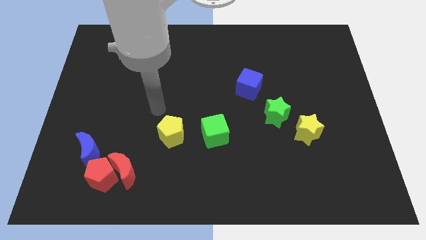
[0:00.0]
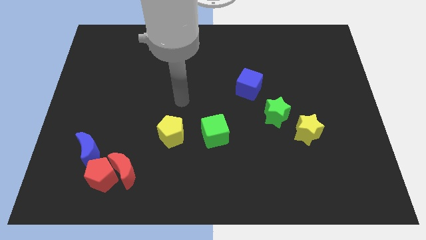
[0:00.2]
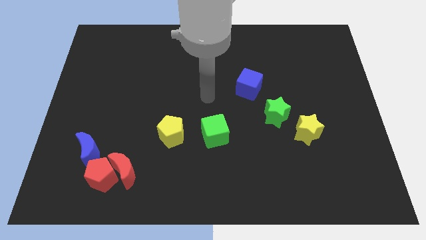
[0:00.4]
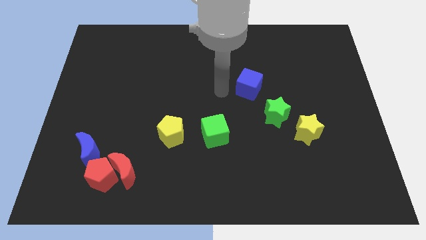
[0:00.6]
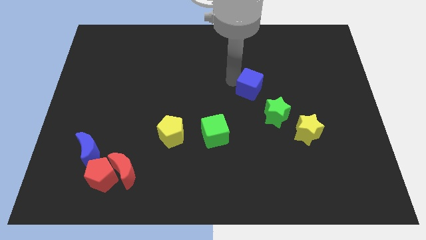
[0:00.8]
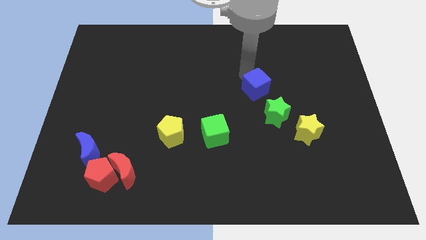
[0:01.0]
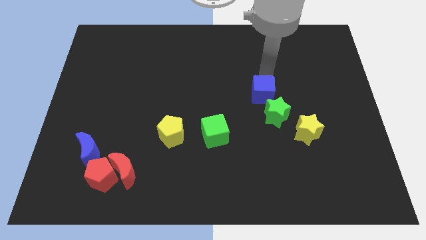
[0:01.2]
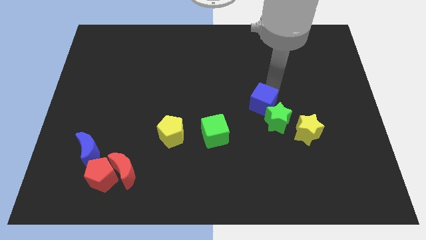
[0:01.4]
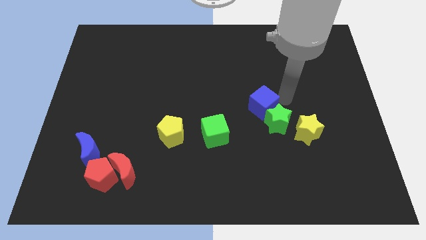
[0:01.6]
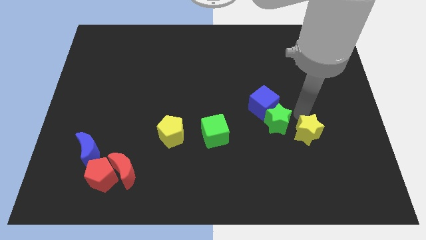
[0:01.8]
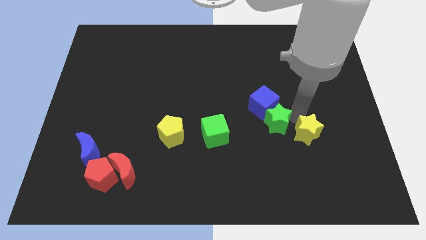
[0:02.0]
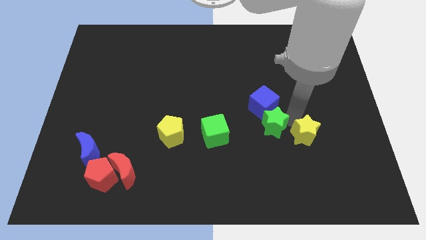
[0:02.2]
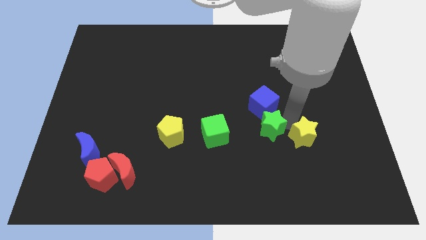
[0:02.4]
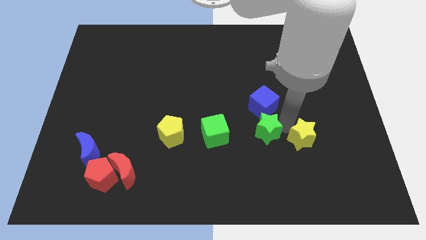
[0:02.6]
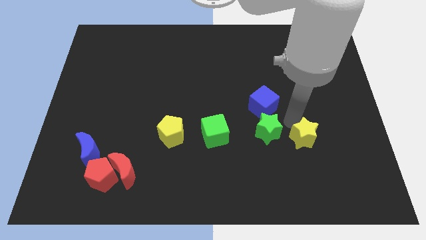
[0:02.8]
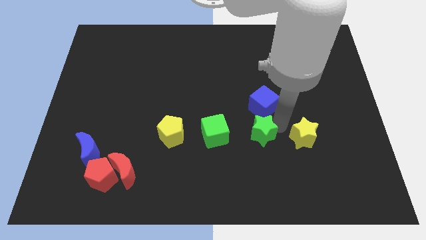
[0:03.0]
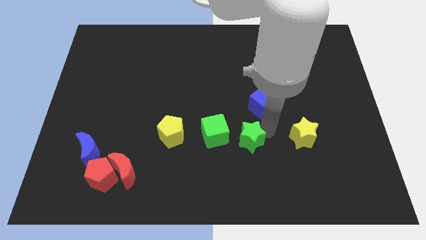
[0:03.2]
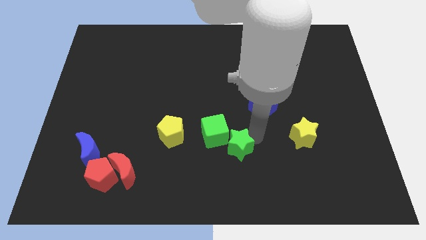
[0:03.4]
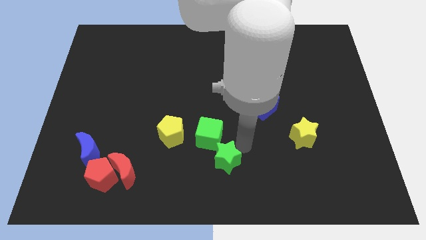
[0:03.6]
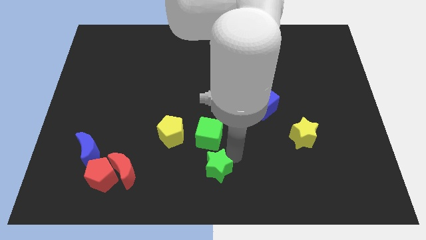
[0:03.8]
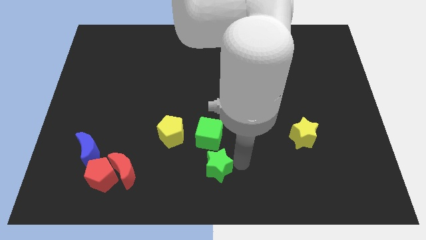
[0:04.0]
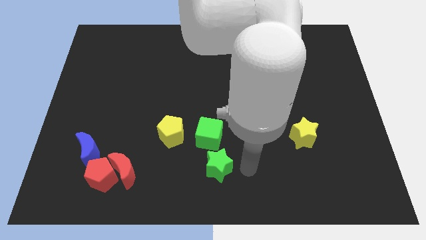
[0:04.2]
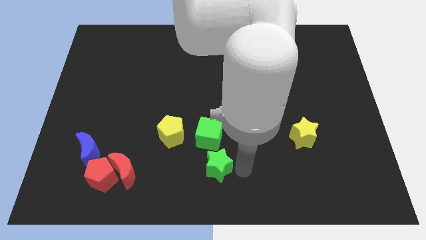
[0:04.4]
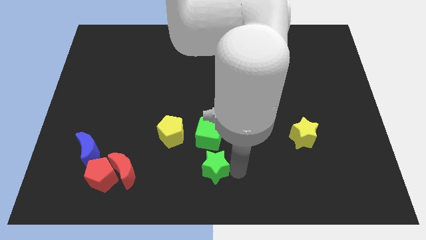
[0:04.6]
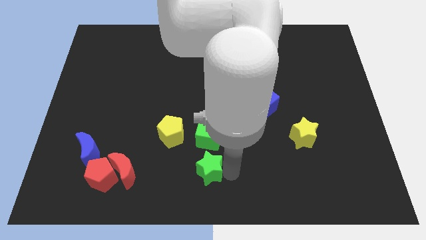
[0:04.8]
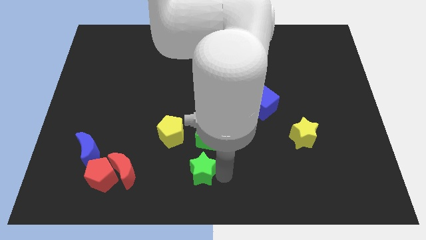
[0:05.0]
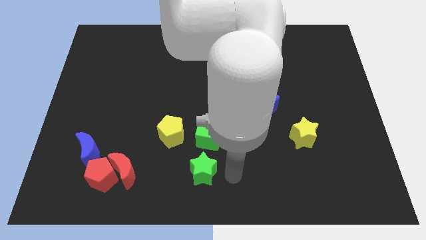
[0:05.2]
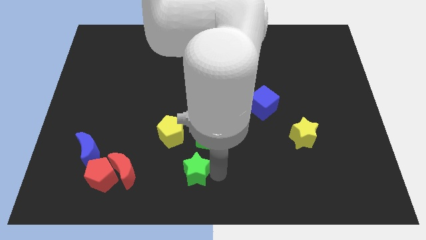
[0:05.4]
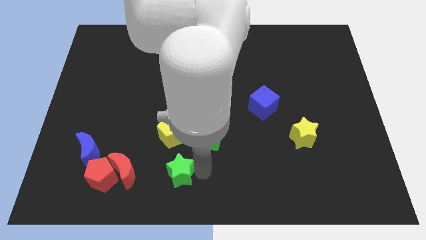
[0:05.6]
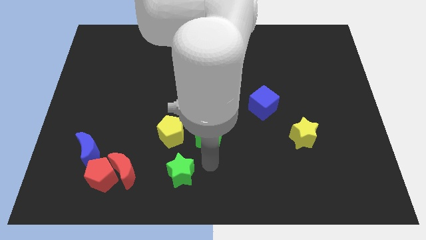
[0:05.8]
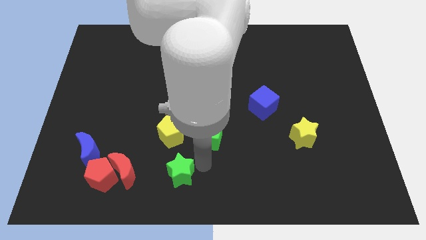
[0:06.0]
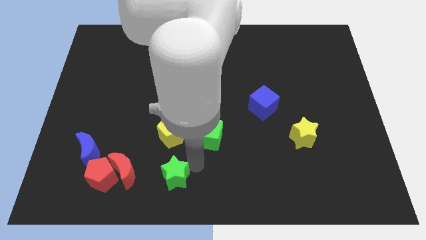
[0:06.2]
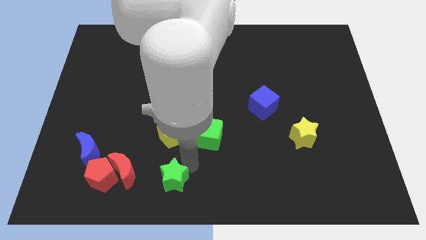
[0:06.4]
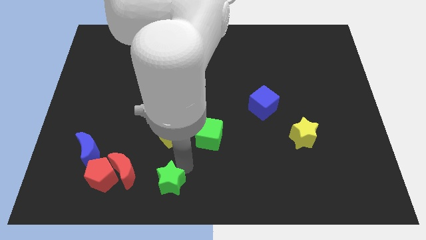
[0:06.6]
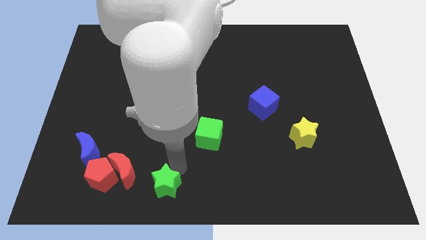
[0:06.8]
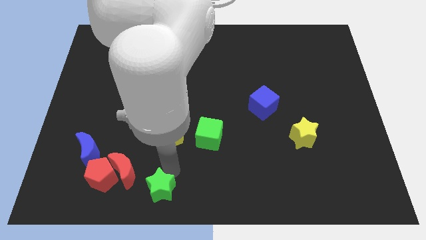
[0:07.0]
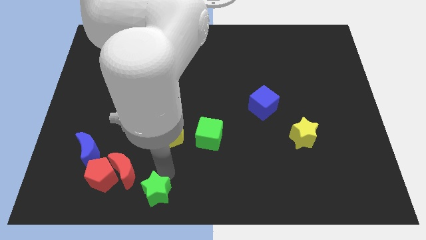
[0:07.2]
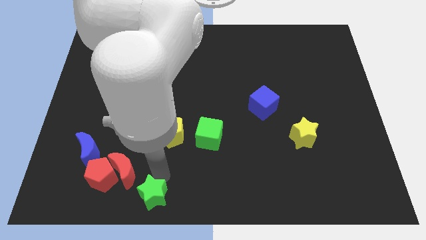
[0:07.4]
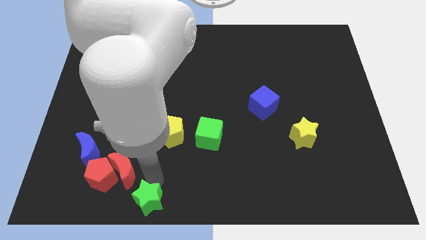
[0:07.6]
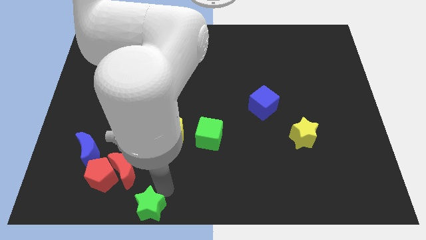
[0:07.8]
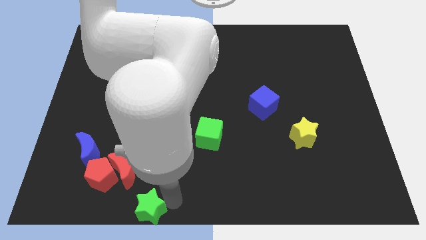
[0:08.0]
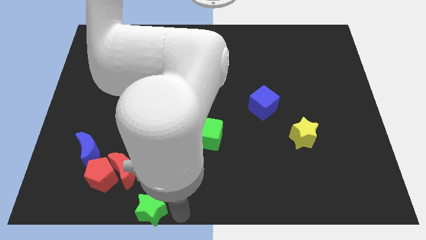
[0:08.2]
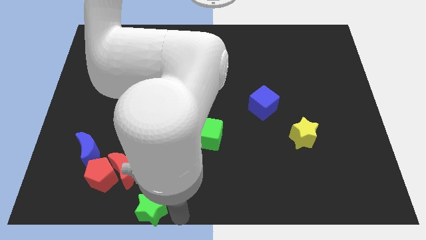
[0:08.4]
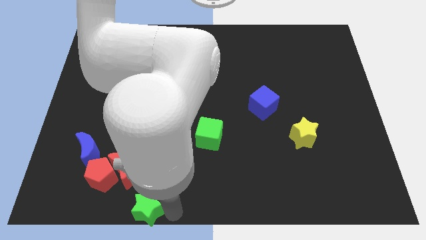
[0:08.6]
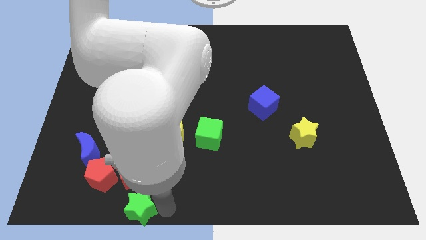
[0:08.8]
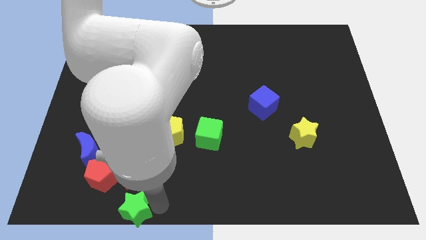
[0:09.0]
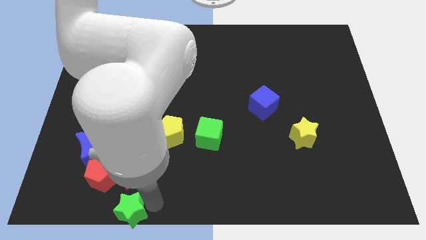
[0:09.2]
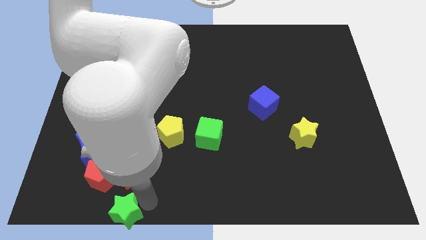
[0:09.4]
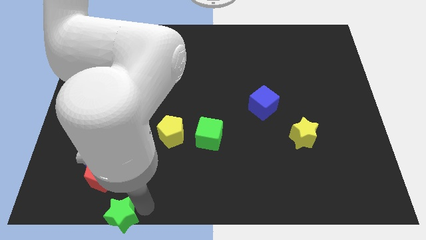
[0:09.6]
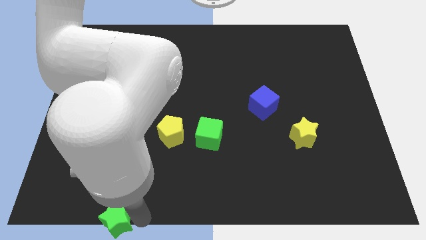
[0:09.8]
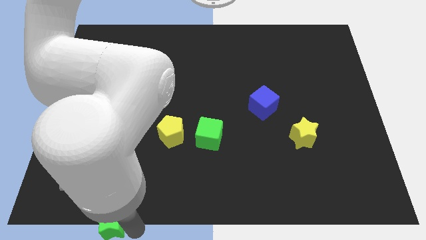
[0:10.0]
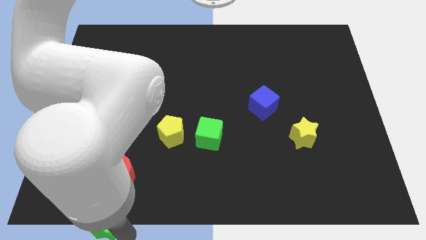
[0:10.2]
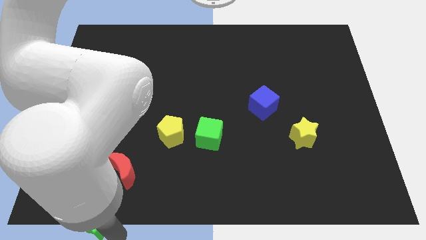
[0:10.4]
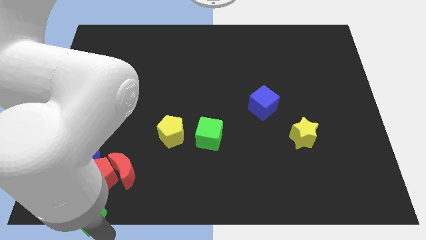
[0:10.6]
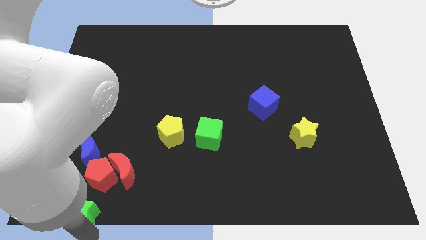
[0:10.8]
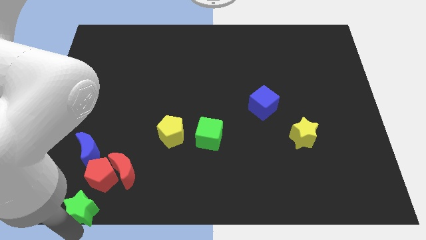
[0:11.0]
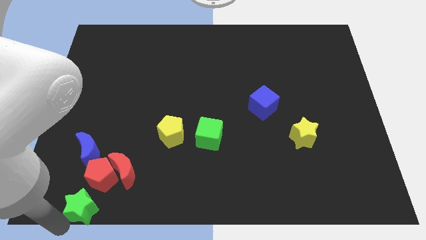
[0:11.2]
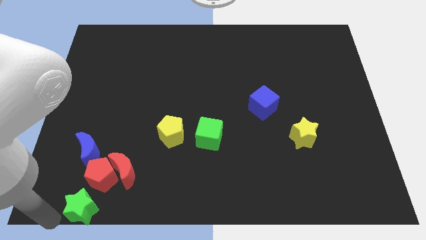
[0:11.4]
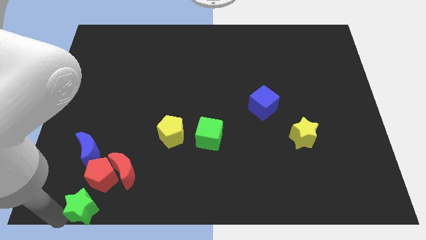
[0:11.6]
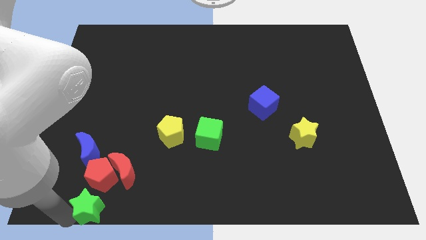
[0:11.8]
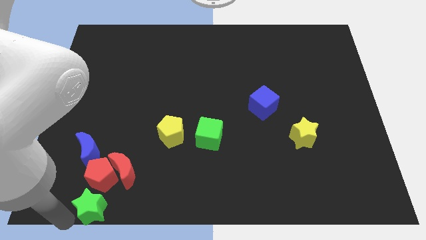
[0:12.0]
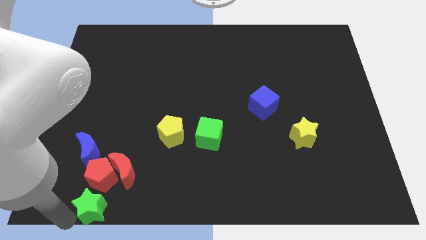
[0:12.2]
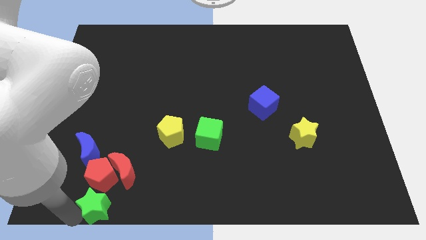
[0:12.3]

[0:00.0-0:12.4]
push the green star close to the red pentagon
